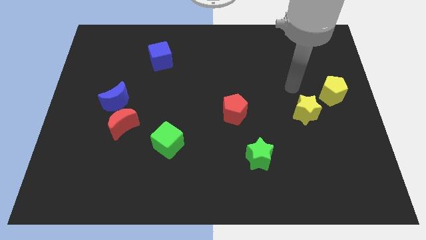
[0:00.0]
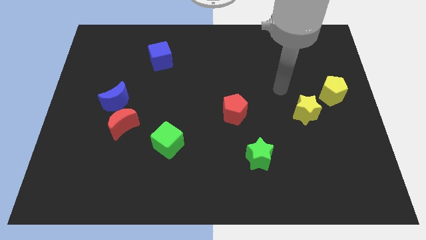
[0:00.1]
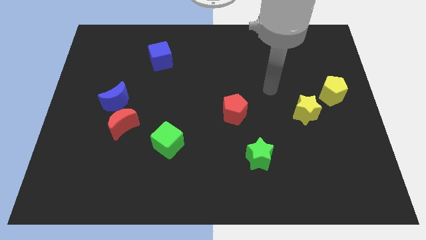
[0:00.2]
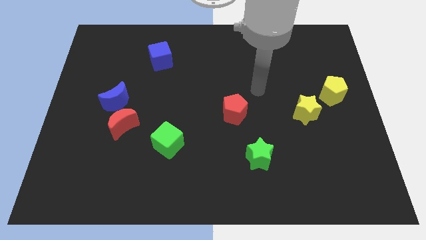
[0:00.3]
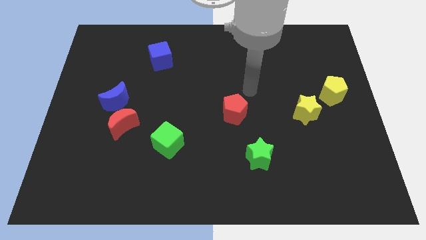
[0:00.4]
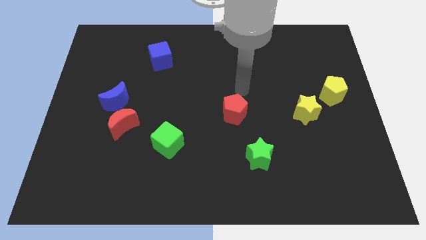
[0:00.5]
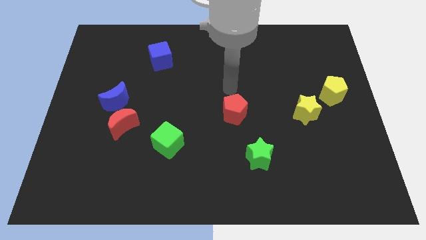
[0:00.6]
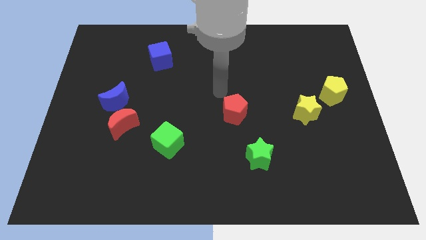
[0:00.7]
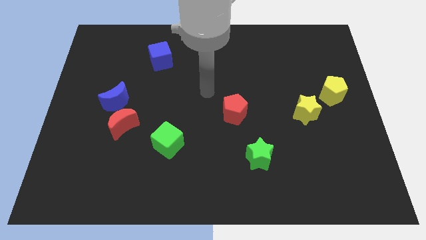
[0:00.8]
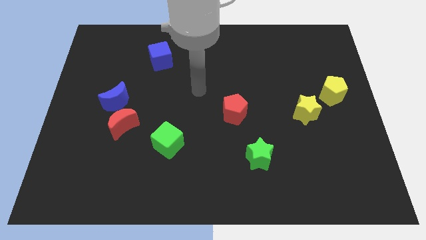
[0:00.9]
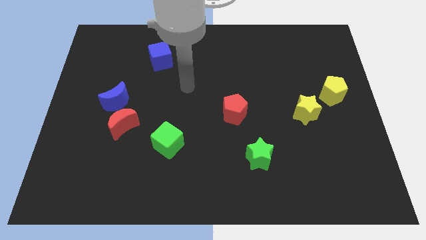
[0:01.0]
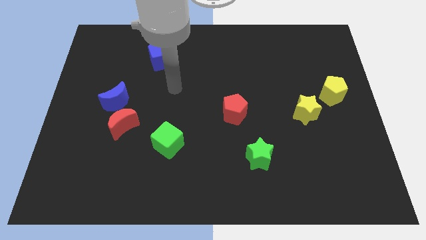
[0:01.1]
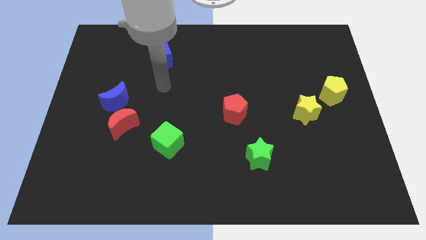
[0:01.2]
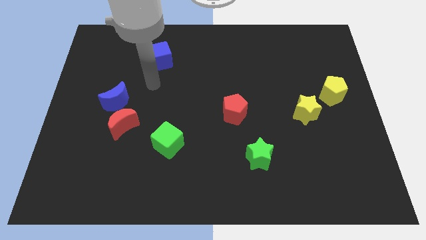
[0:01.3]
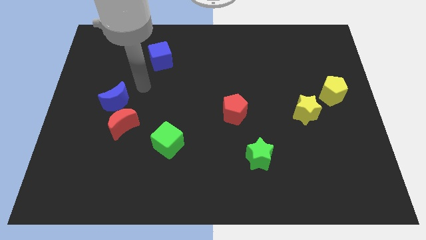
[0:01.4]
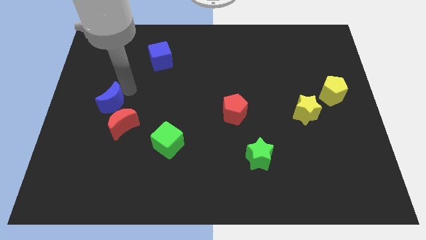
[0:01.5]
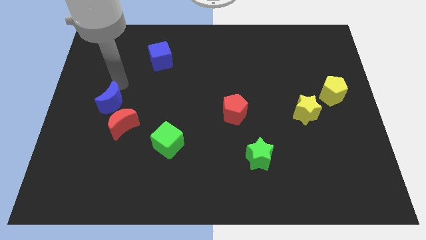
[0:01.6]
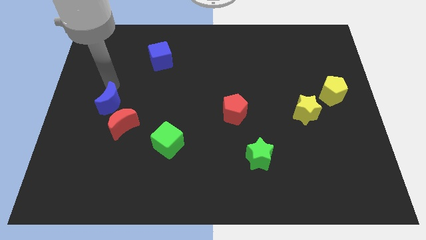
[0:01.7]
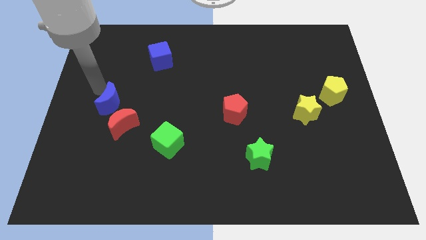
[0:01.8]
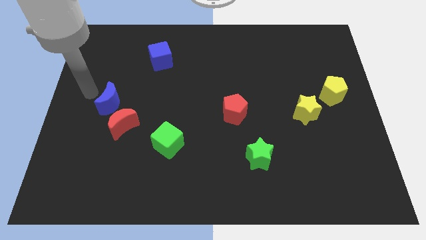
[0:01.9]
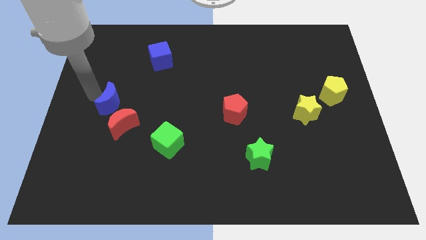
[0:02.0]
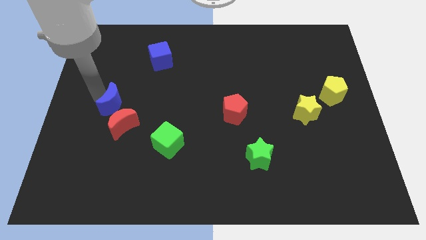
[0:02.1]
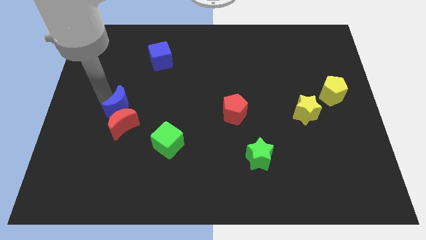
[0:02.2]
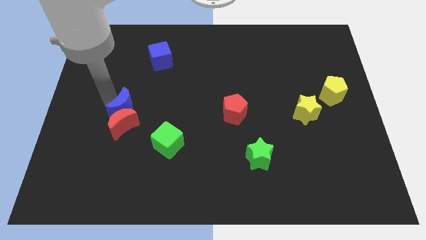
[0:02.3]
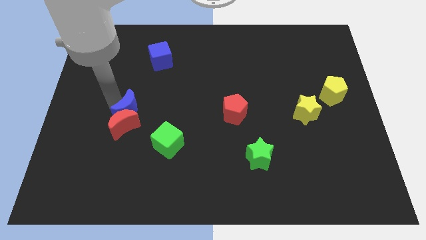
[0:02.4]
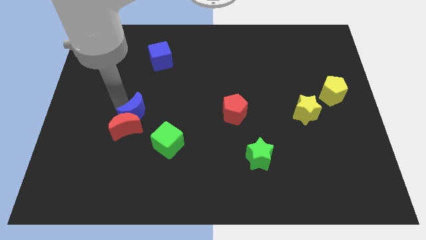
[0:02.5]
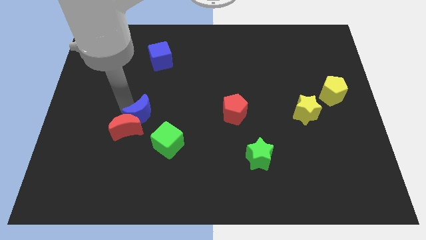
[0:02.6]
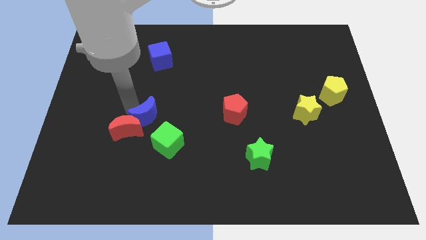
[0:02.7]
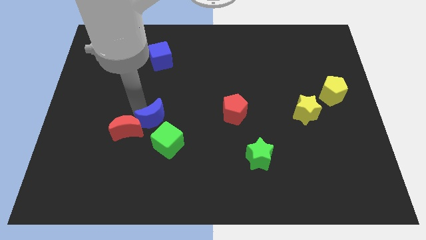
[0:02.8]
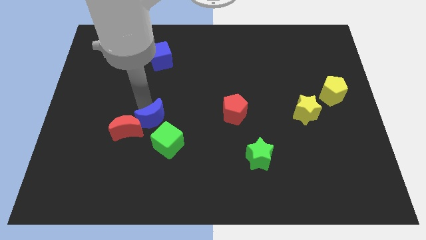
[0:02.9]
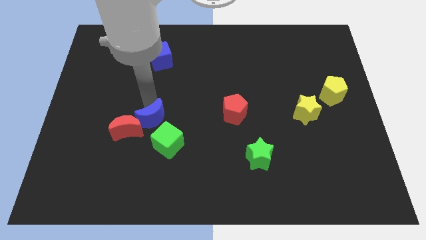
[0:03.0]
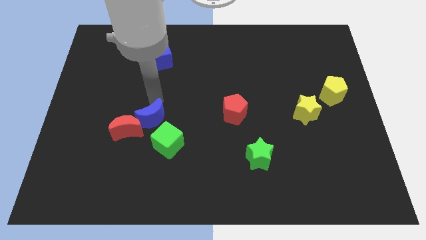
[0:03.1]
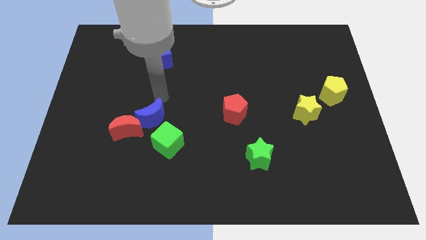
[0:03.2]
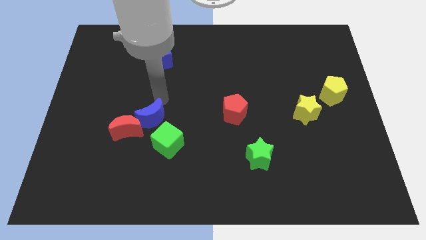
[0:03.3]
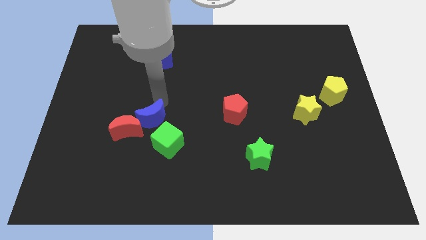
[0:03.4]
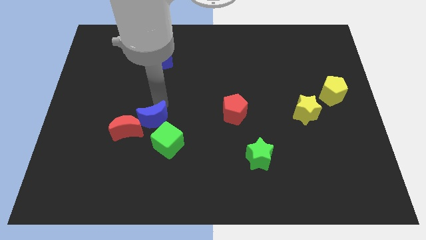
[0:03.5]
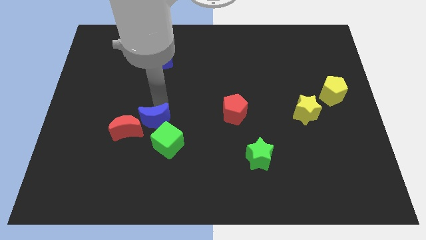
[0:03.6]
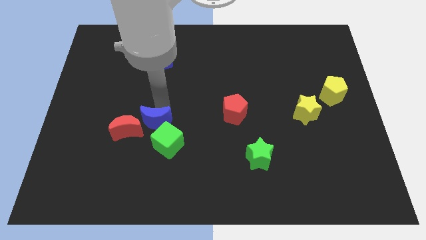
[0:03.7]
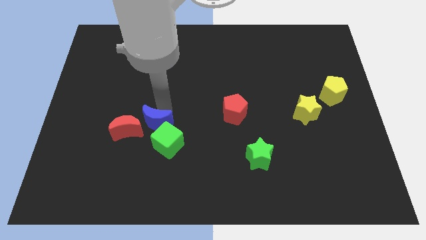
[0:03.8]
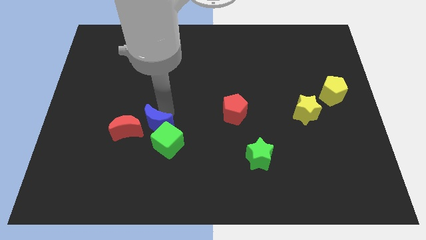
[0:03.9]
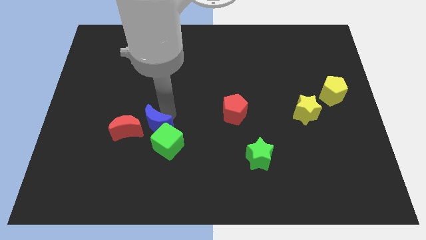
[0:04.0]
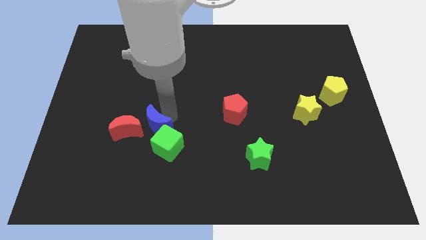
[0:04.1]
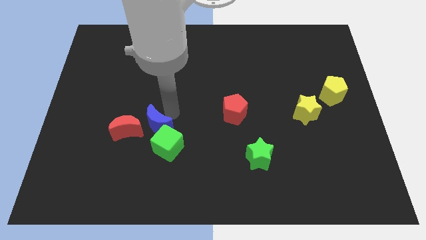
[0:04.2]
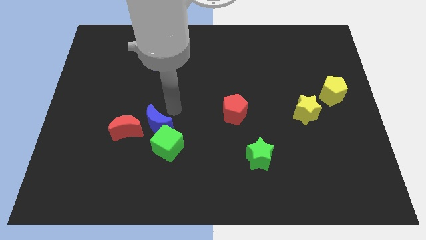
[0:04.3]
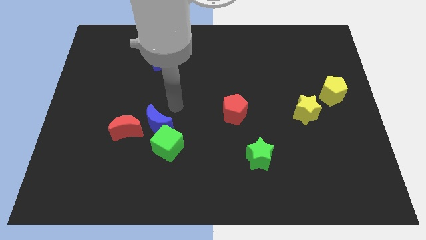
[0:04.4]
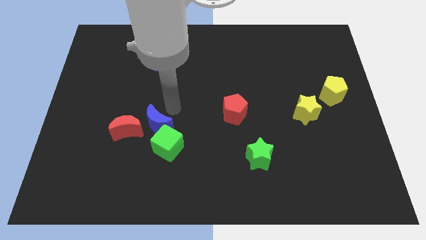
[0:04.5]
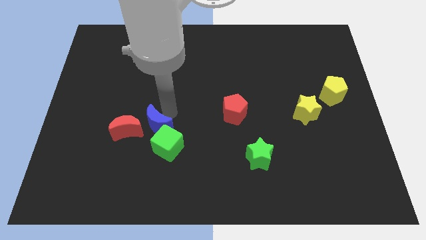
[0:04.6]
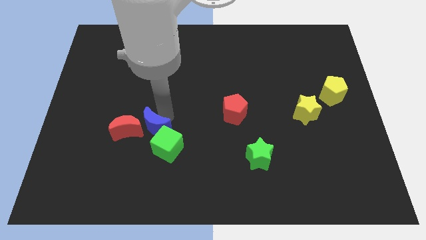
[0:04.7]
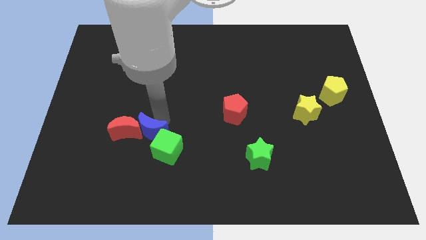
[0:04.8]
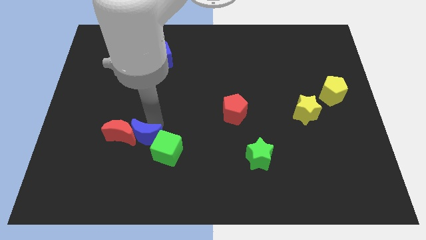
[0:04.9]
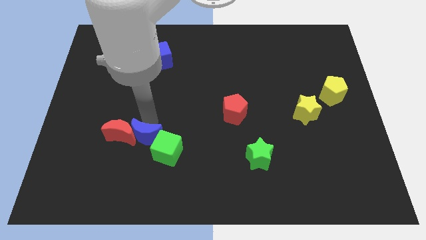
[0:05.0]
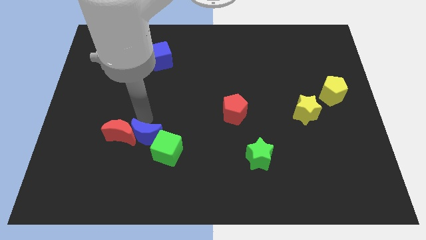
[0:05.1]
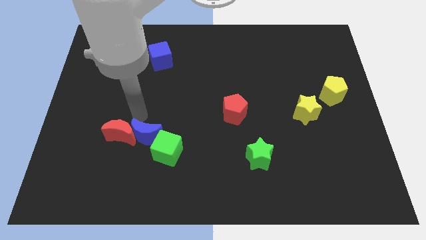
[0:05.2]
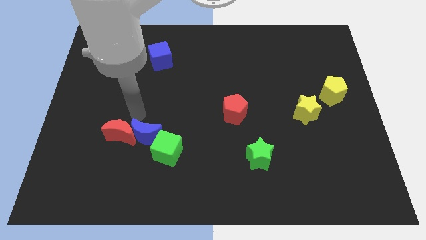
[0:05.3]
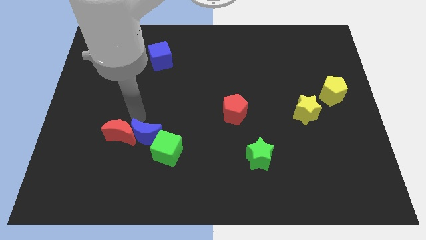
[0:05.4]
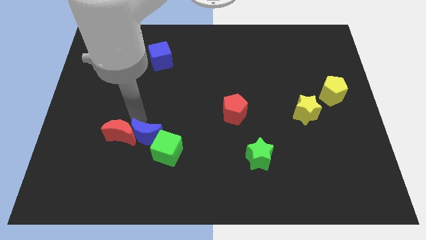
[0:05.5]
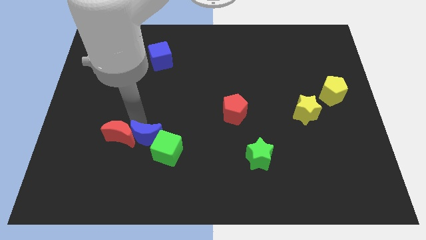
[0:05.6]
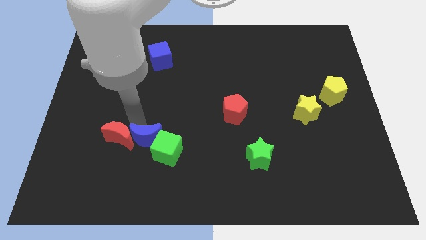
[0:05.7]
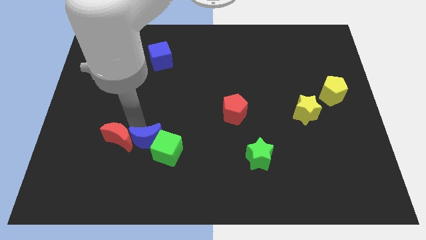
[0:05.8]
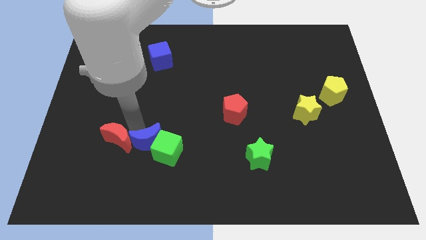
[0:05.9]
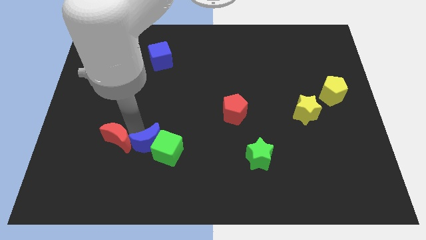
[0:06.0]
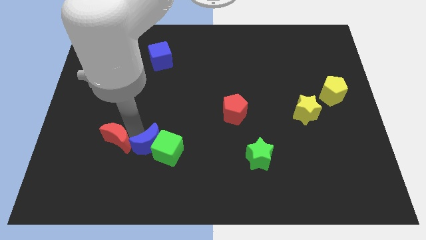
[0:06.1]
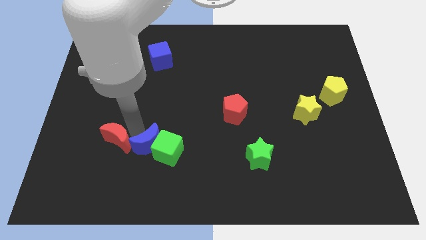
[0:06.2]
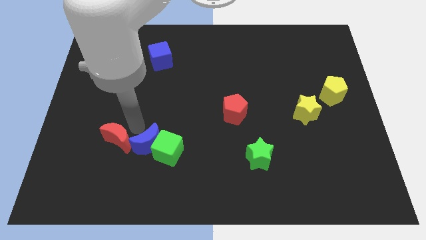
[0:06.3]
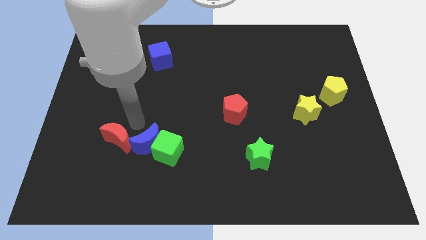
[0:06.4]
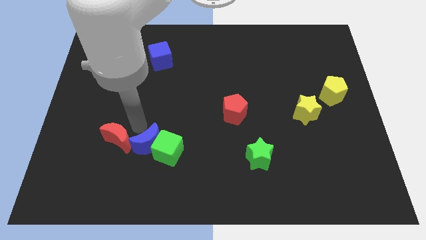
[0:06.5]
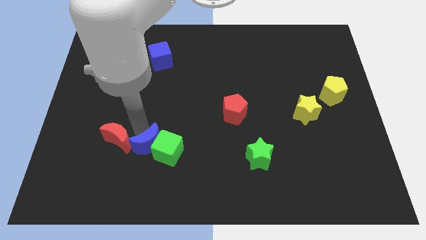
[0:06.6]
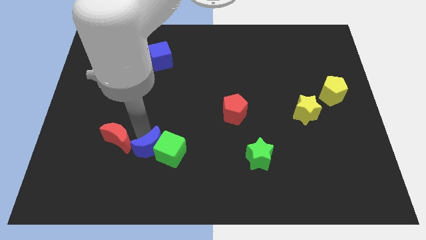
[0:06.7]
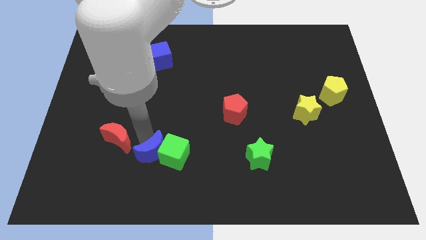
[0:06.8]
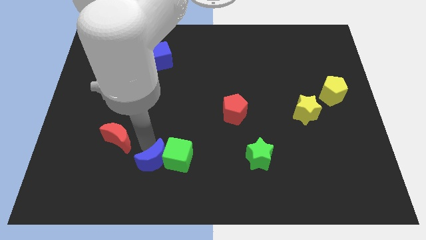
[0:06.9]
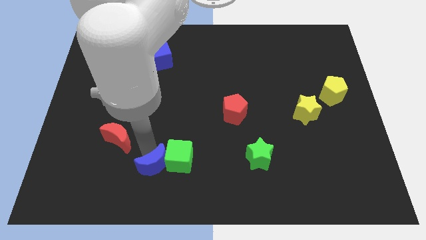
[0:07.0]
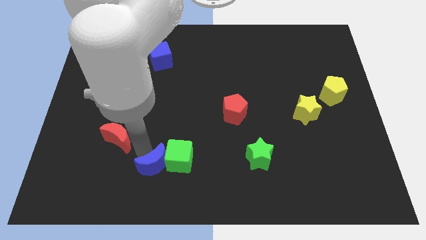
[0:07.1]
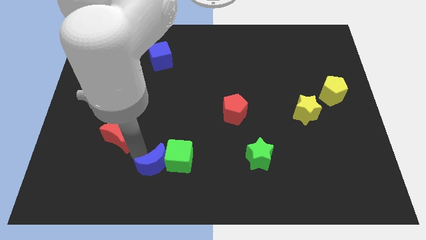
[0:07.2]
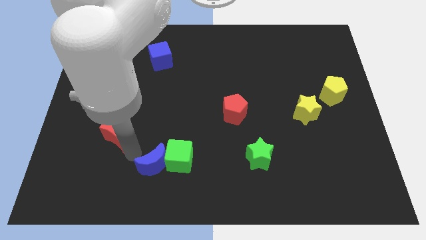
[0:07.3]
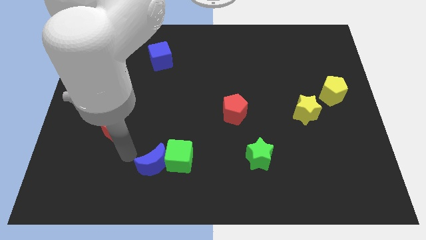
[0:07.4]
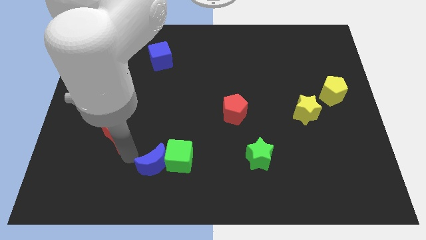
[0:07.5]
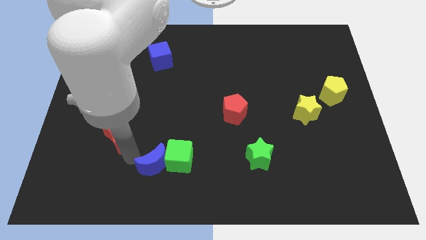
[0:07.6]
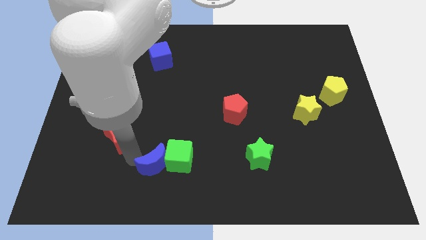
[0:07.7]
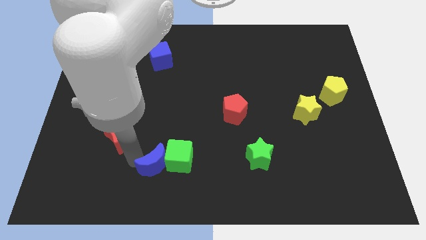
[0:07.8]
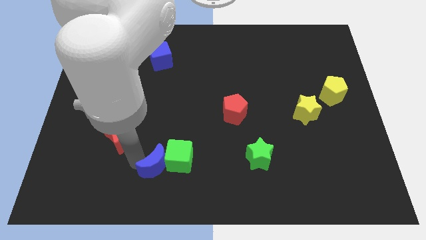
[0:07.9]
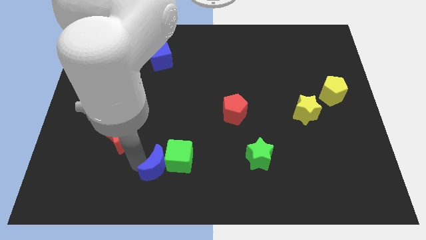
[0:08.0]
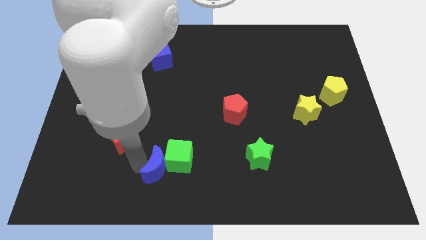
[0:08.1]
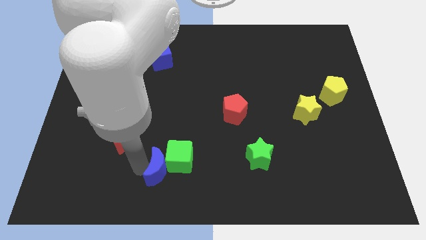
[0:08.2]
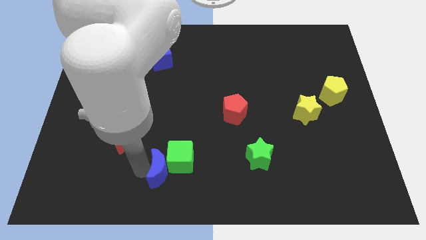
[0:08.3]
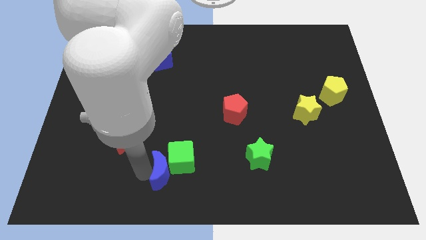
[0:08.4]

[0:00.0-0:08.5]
push the blue moon to the bottom side
